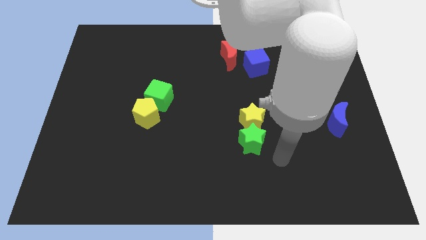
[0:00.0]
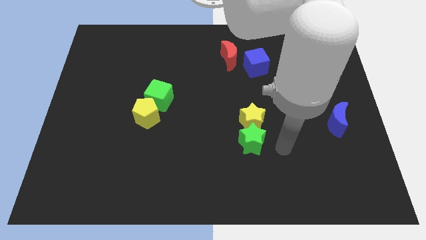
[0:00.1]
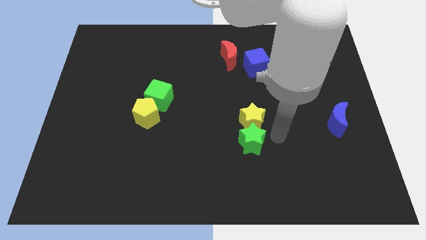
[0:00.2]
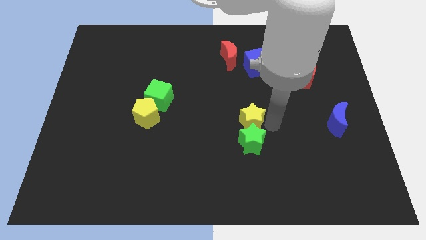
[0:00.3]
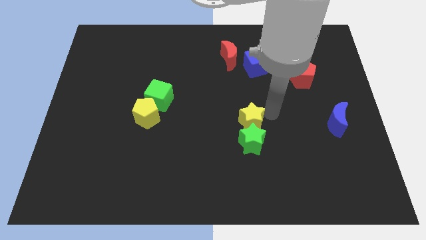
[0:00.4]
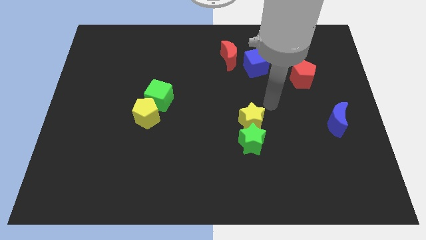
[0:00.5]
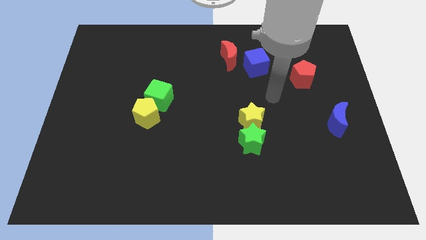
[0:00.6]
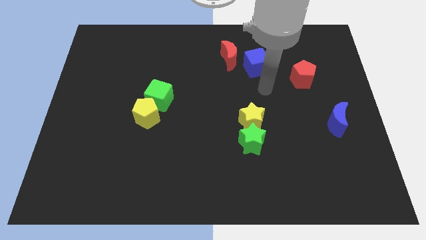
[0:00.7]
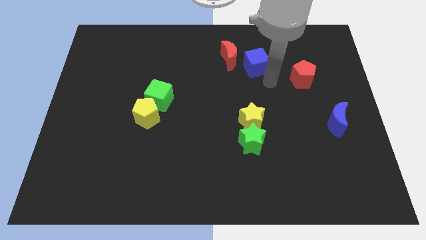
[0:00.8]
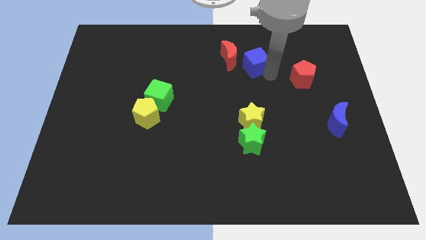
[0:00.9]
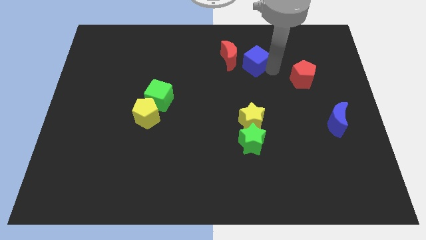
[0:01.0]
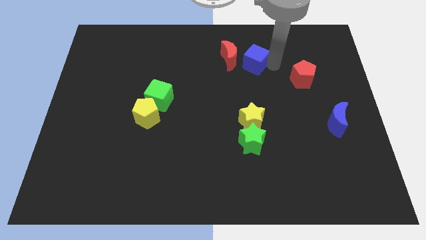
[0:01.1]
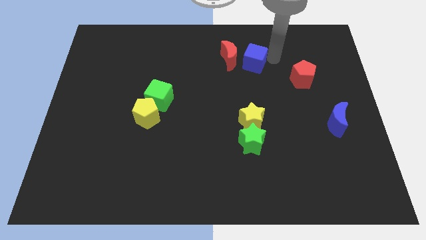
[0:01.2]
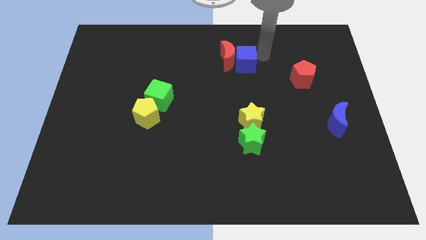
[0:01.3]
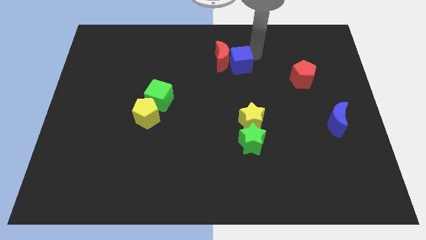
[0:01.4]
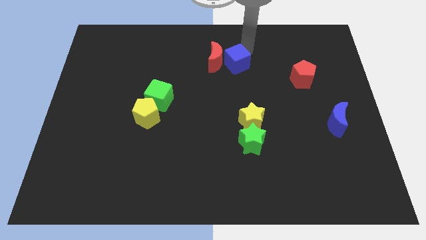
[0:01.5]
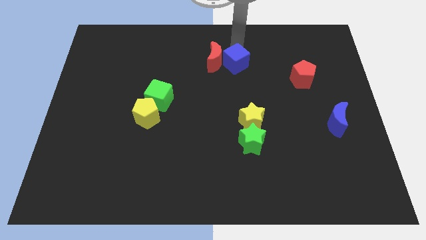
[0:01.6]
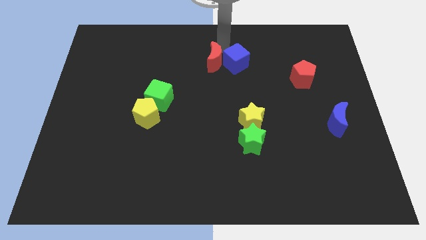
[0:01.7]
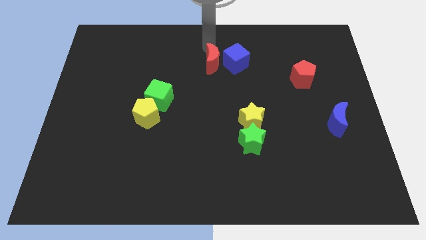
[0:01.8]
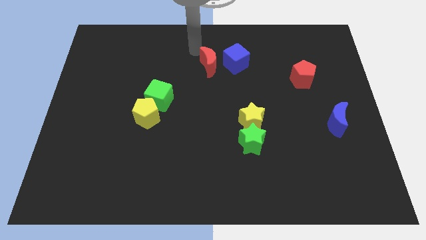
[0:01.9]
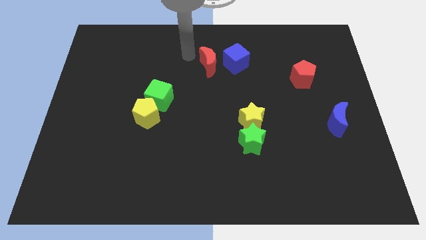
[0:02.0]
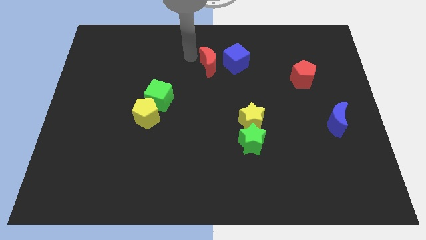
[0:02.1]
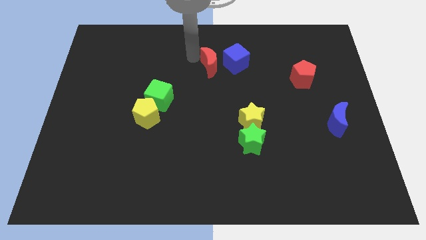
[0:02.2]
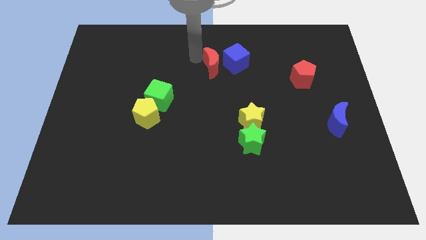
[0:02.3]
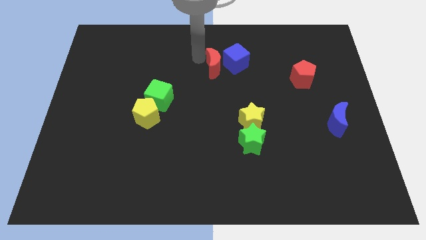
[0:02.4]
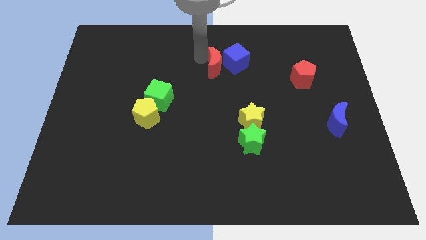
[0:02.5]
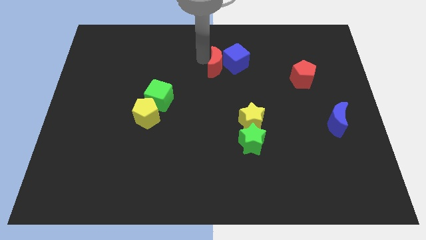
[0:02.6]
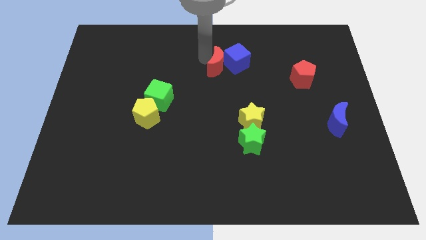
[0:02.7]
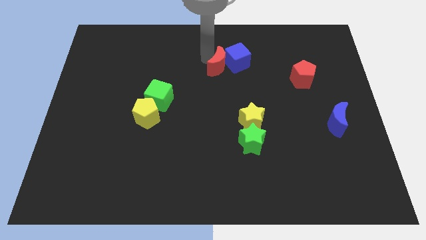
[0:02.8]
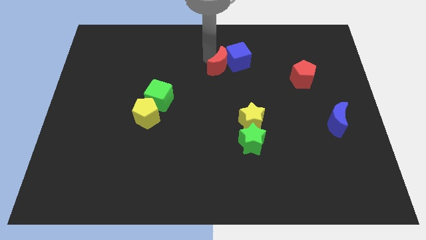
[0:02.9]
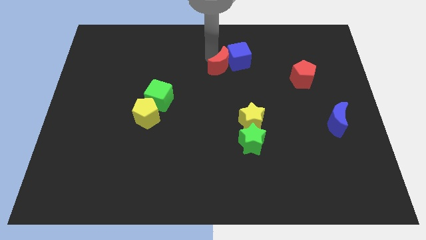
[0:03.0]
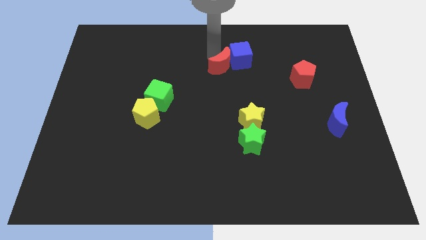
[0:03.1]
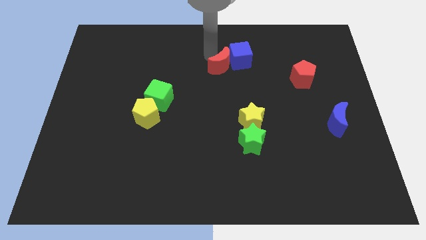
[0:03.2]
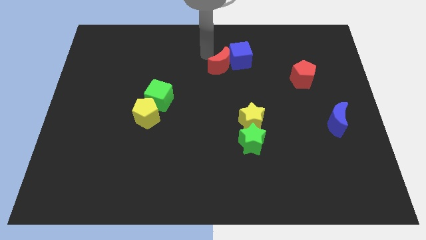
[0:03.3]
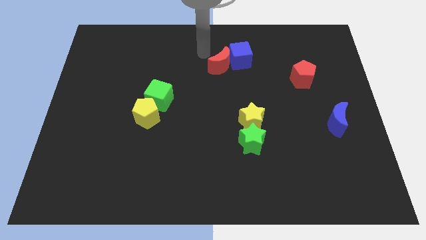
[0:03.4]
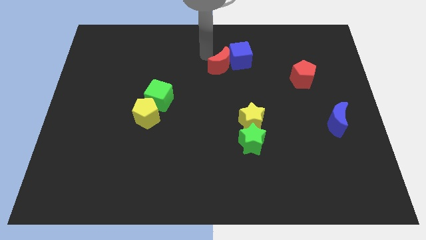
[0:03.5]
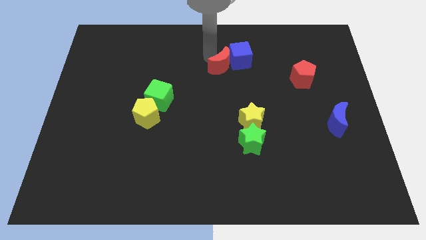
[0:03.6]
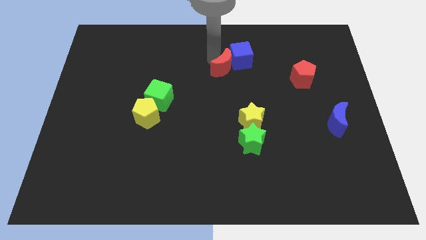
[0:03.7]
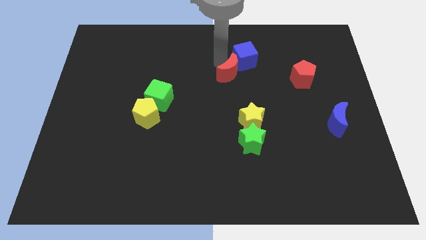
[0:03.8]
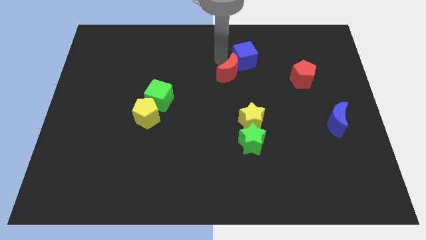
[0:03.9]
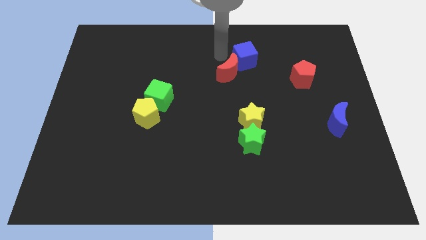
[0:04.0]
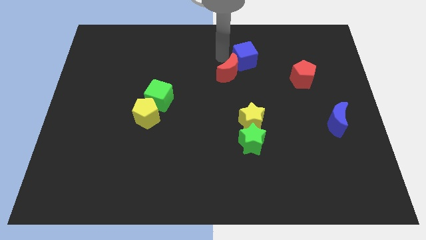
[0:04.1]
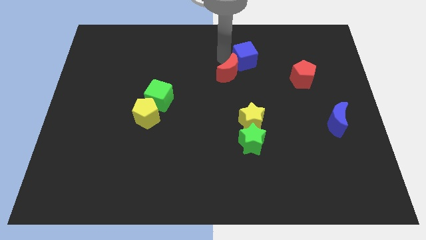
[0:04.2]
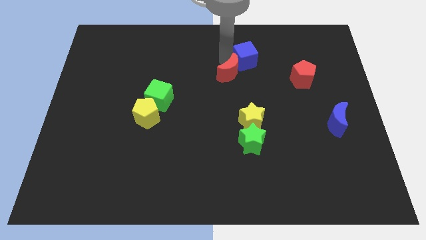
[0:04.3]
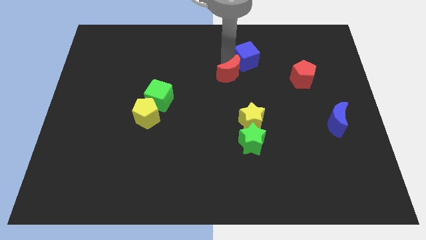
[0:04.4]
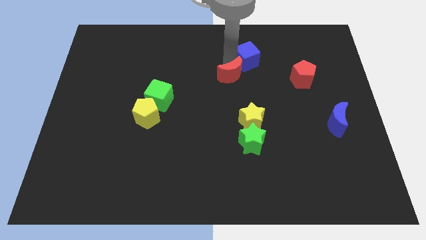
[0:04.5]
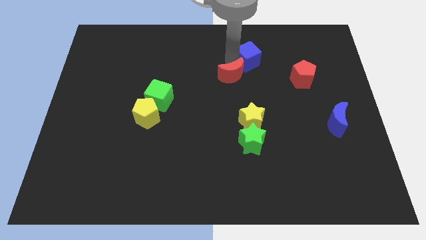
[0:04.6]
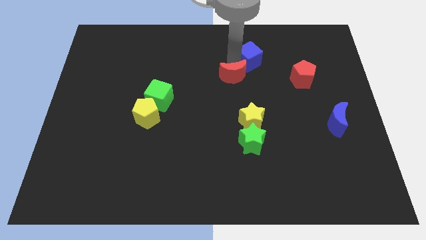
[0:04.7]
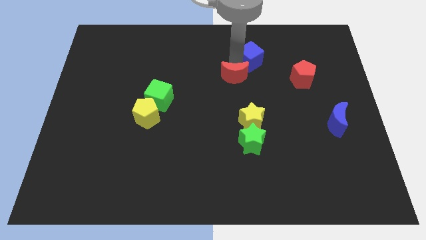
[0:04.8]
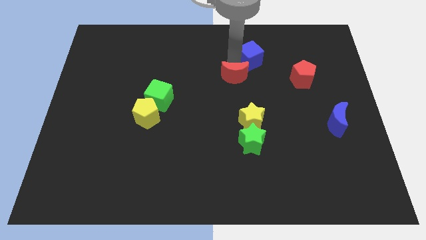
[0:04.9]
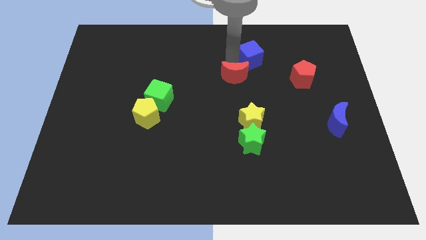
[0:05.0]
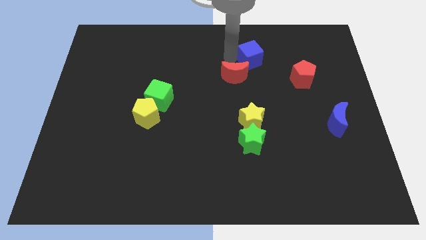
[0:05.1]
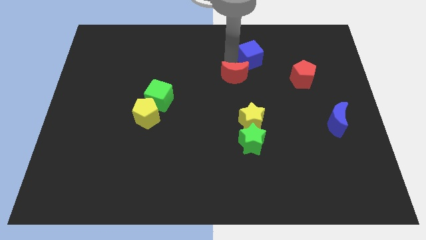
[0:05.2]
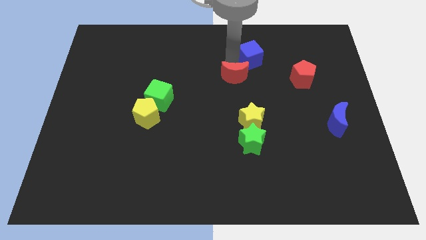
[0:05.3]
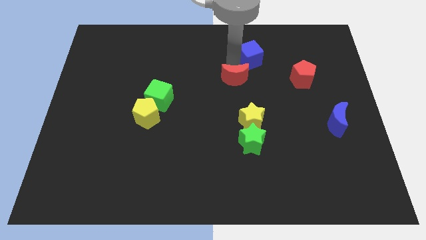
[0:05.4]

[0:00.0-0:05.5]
move the red moon a bit down

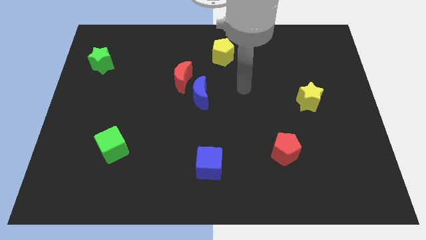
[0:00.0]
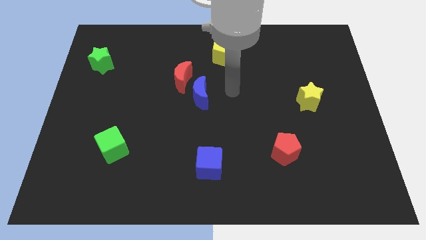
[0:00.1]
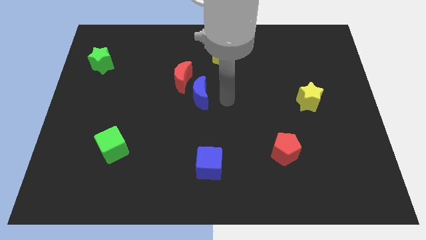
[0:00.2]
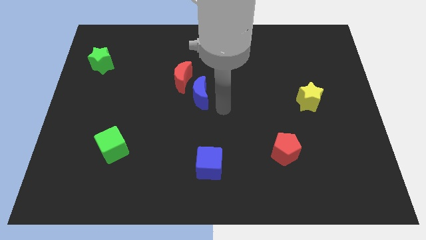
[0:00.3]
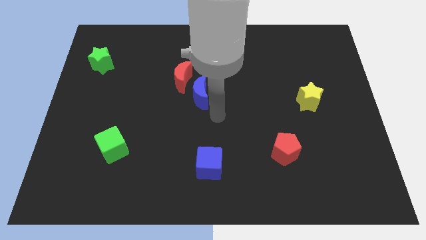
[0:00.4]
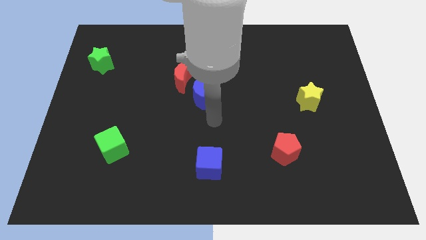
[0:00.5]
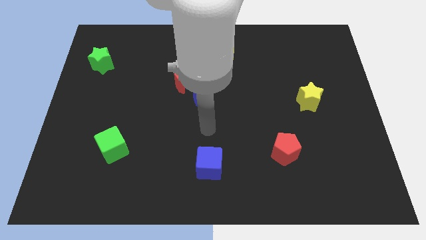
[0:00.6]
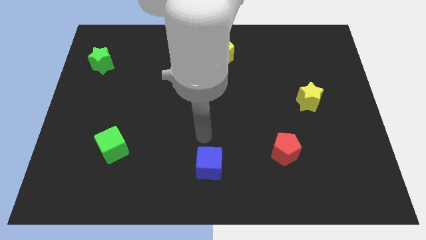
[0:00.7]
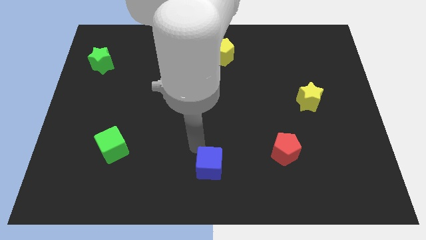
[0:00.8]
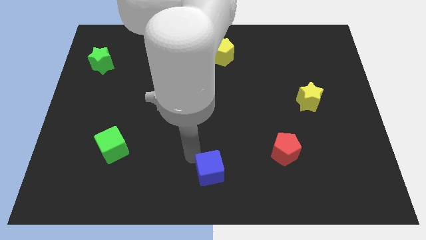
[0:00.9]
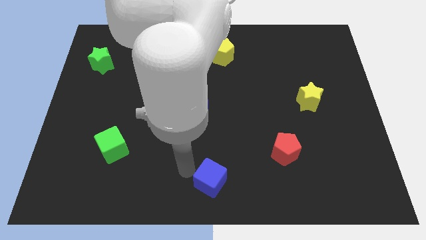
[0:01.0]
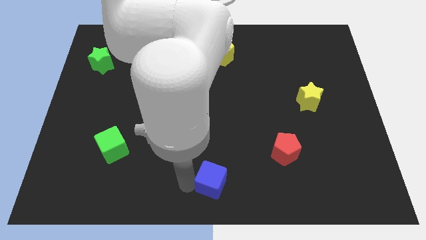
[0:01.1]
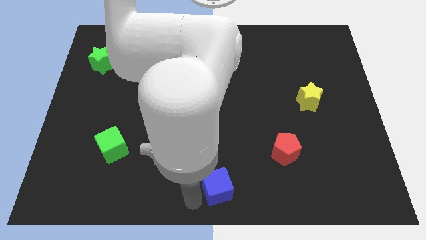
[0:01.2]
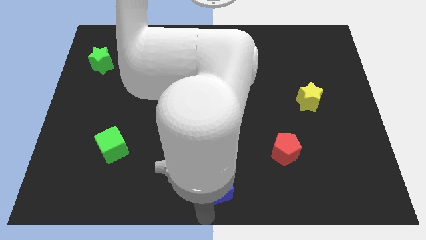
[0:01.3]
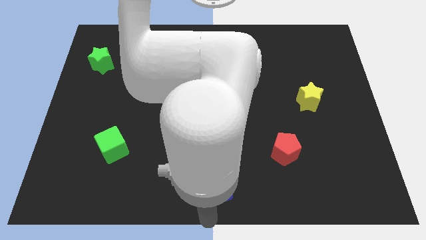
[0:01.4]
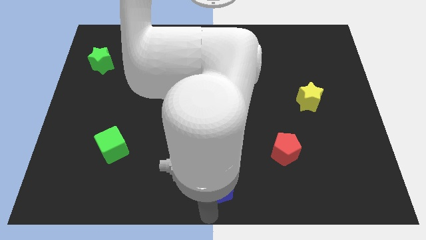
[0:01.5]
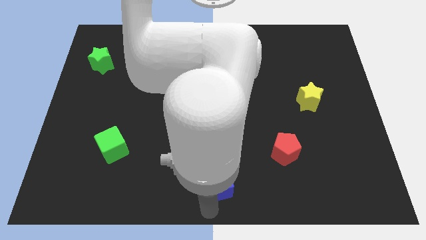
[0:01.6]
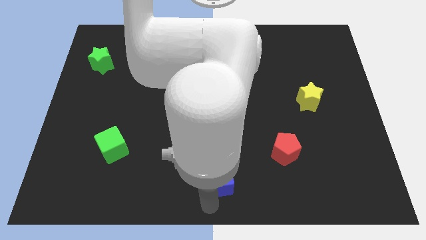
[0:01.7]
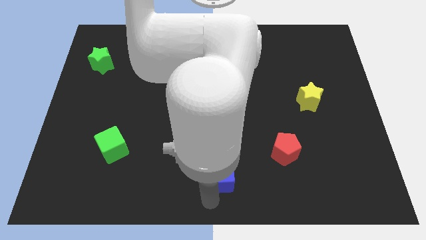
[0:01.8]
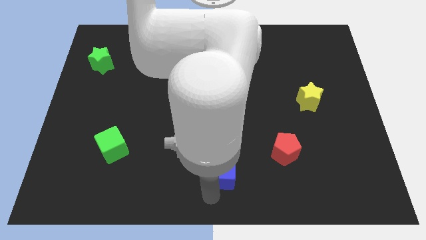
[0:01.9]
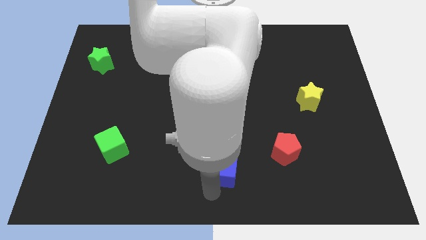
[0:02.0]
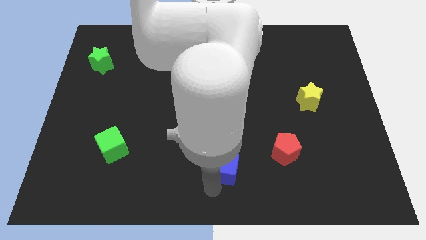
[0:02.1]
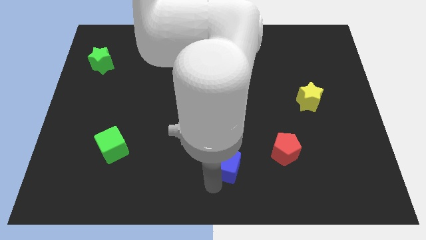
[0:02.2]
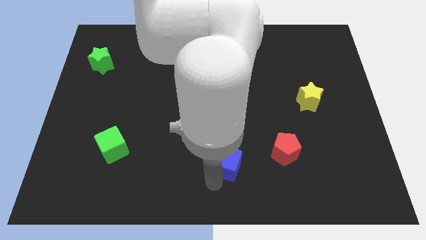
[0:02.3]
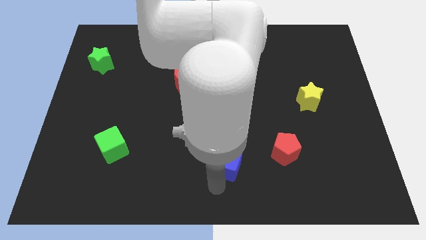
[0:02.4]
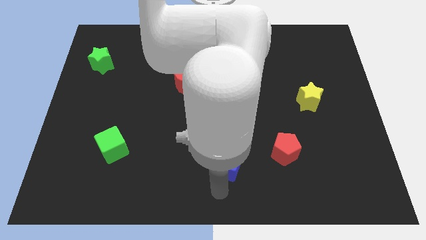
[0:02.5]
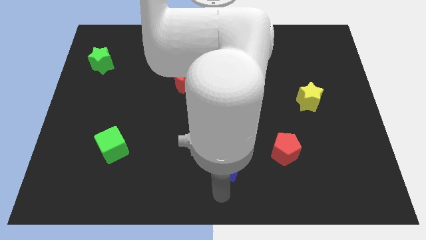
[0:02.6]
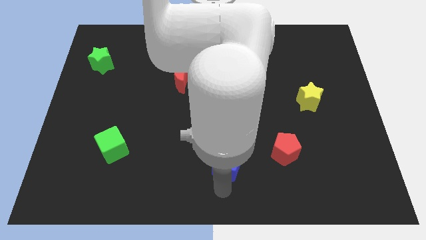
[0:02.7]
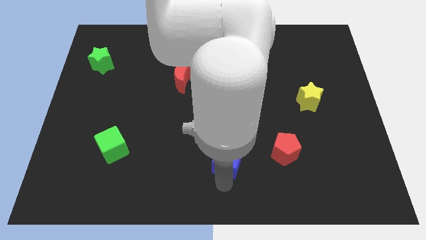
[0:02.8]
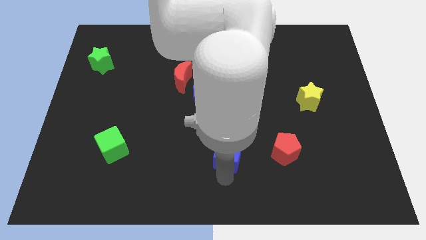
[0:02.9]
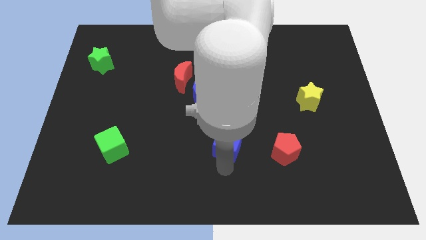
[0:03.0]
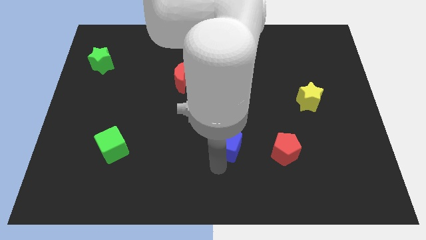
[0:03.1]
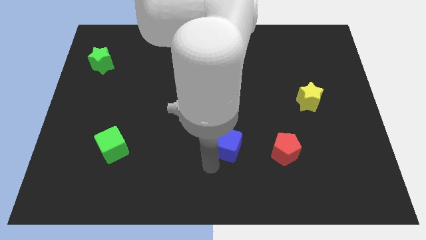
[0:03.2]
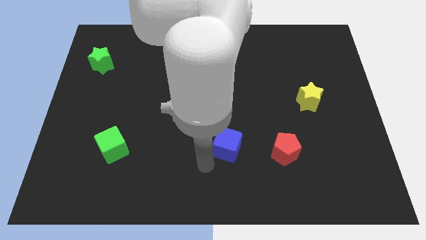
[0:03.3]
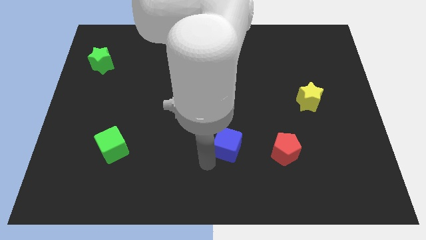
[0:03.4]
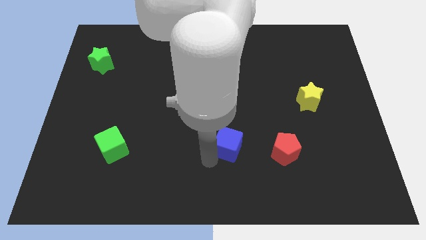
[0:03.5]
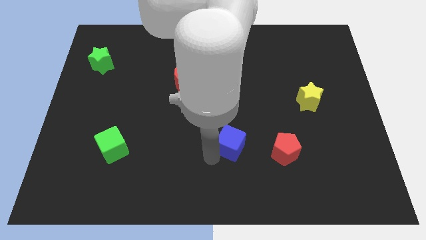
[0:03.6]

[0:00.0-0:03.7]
move the blue cube a little upwards and then right
